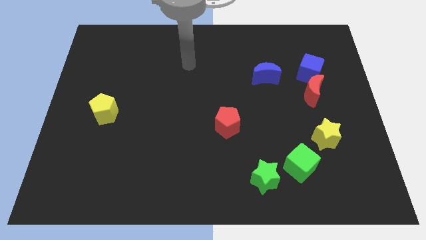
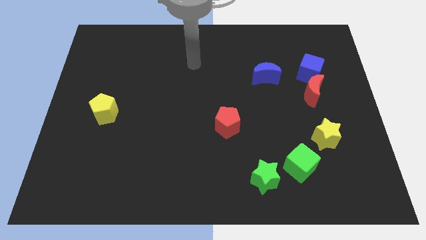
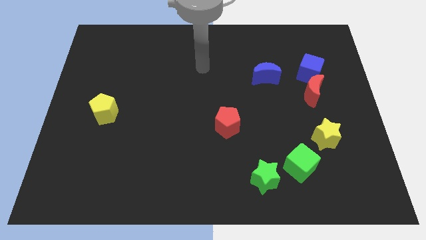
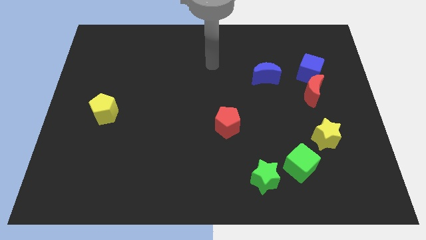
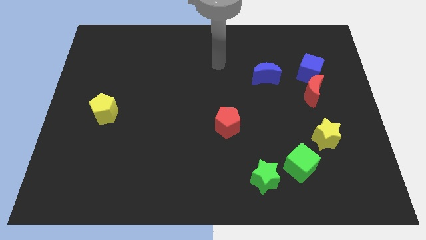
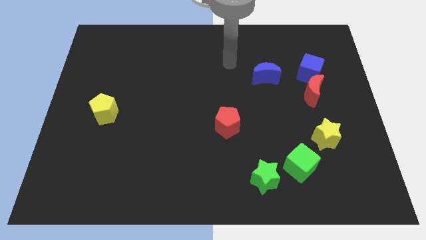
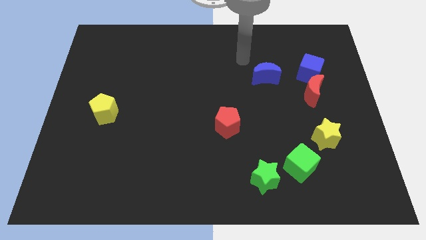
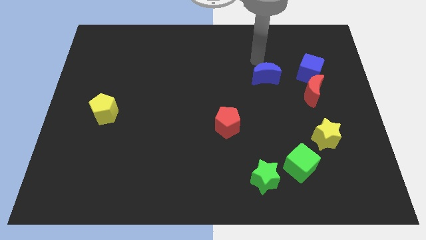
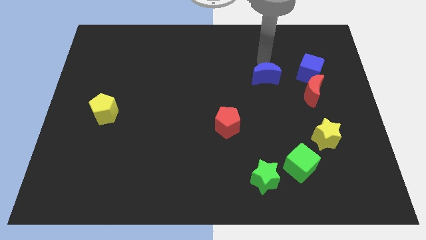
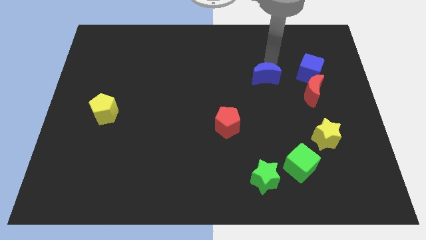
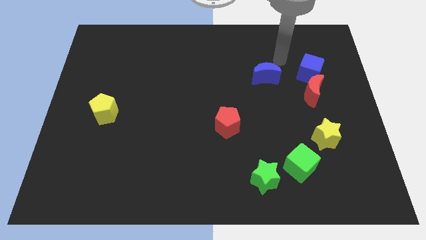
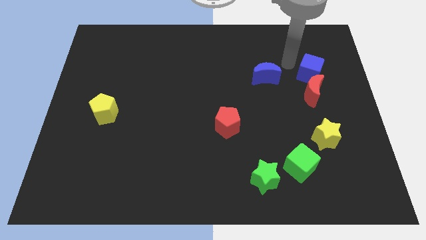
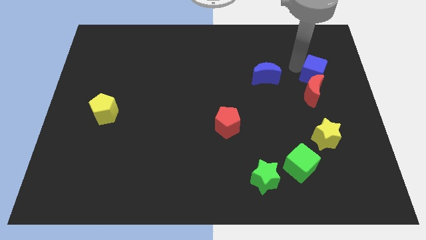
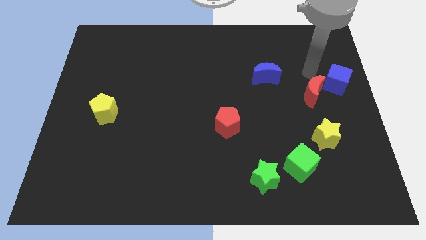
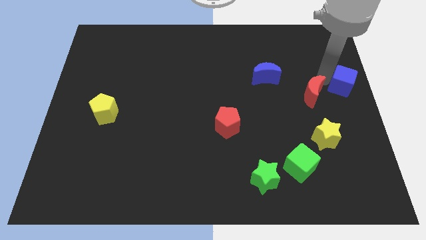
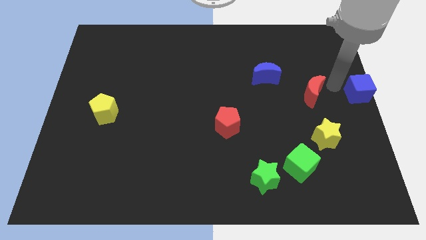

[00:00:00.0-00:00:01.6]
pull the red moon apart from the blue cube

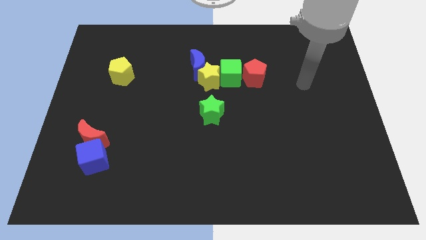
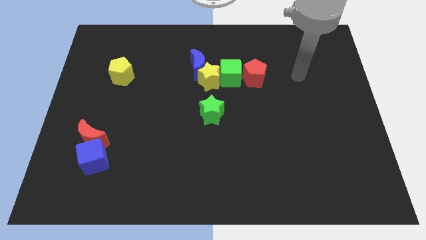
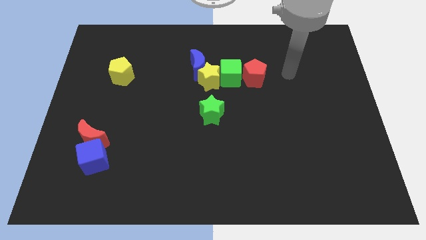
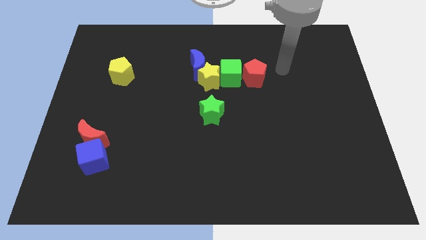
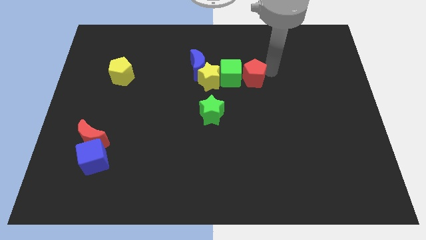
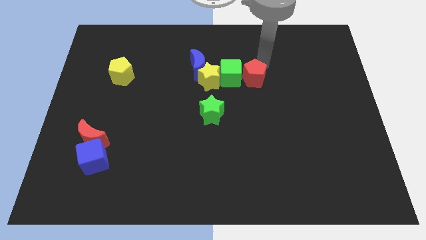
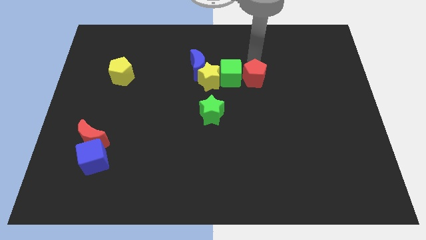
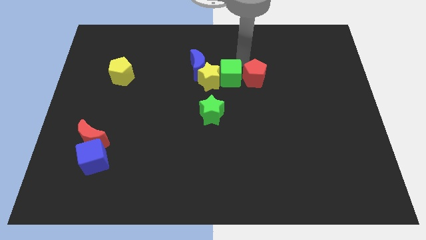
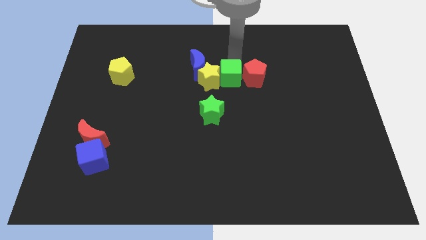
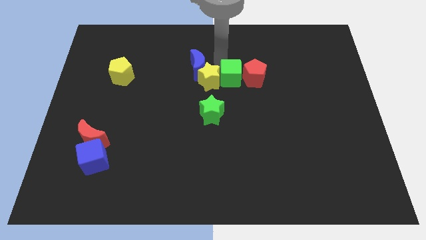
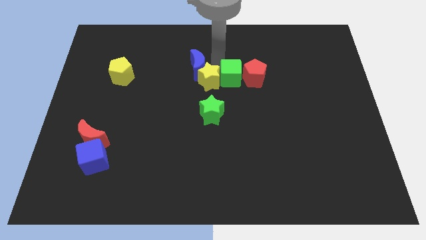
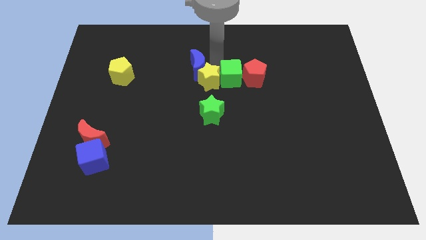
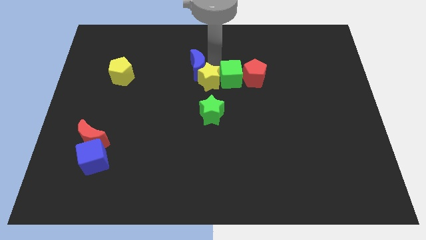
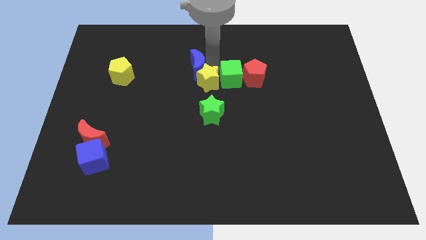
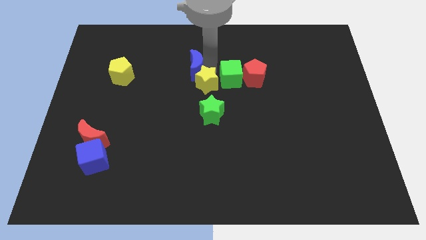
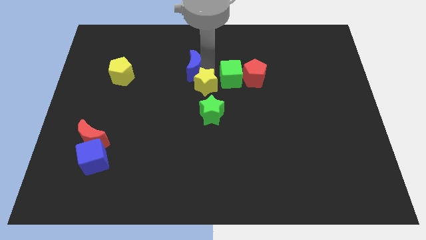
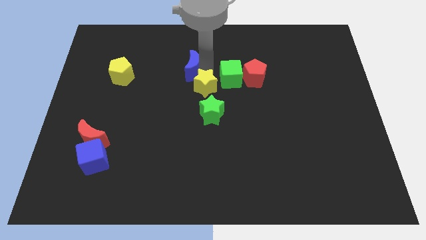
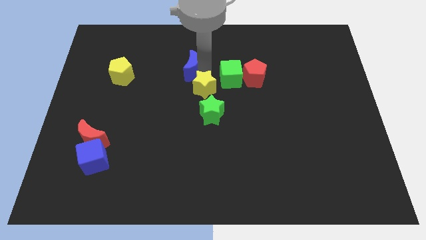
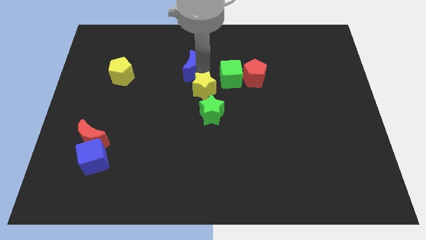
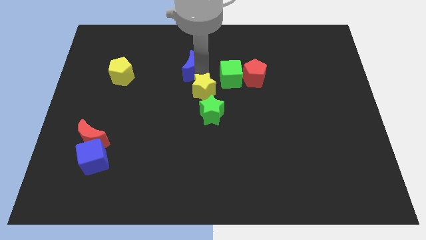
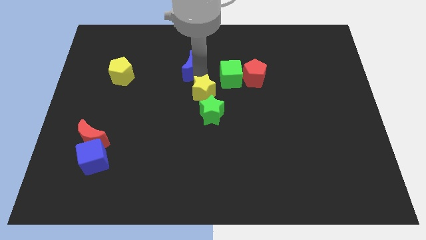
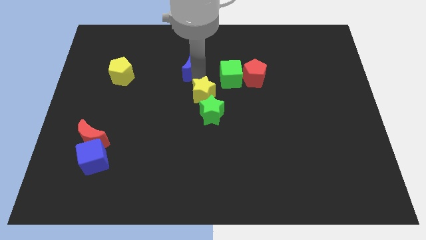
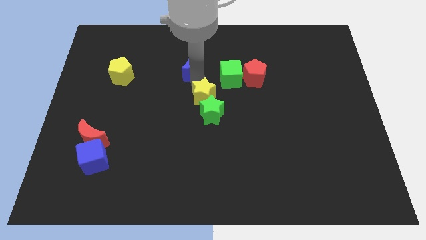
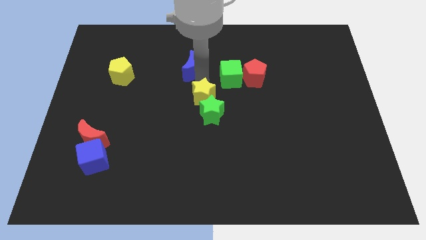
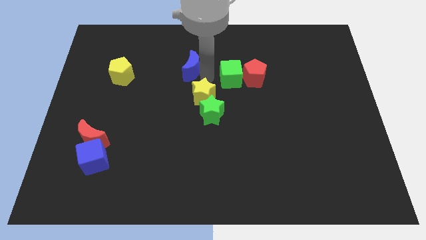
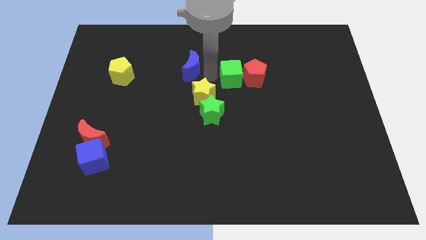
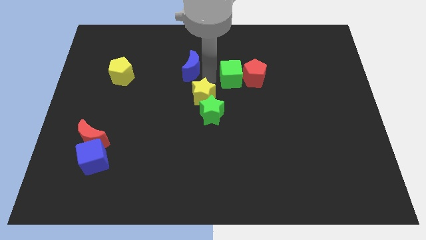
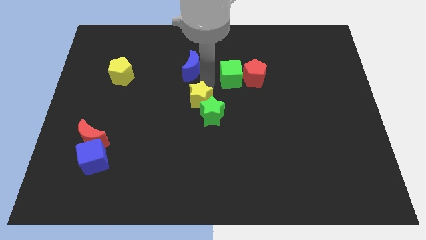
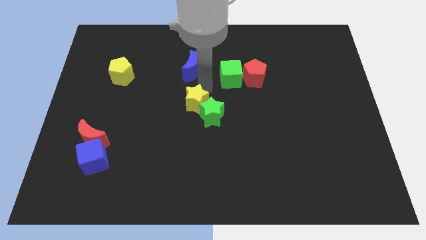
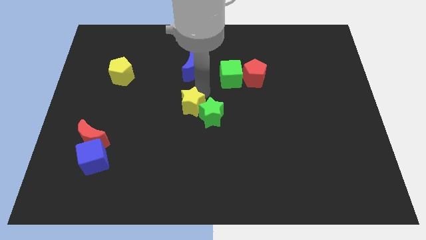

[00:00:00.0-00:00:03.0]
pull the yellow star apart from the blue moon and green cube

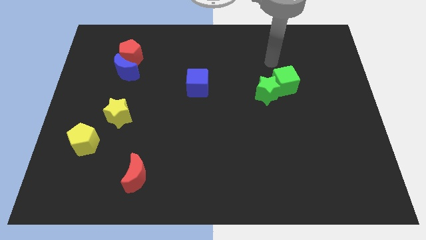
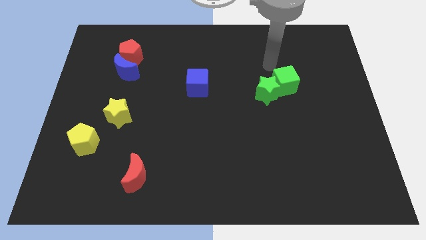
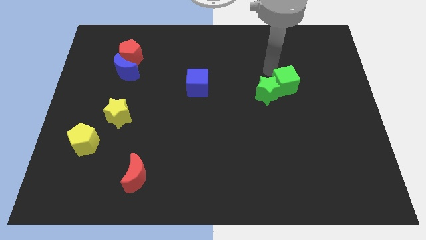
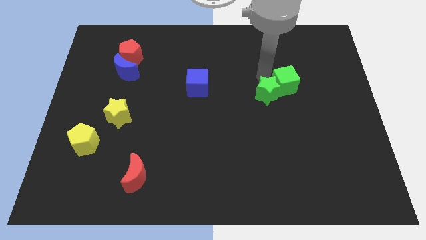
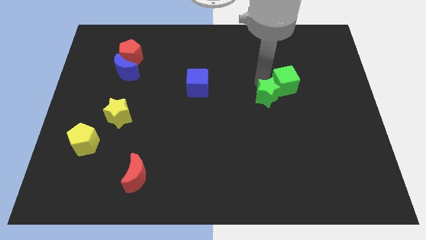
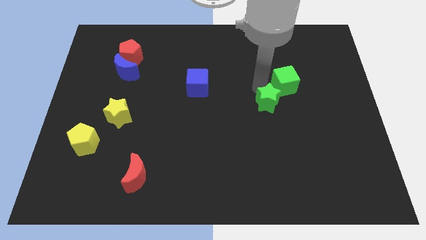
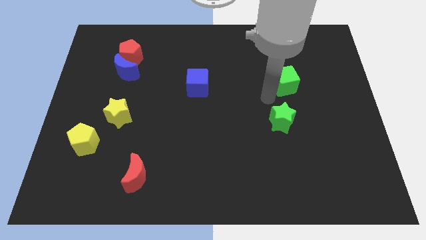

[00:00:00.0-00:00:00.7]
pull the green cube apart from the green star

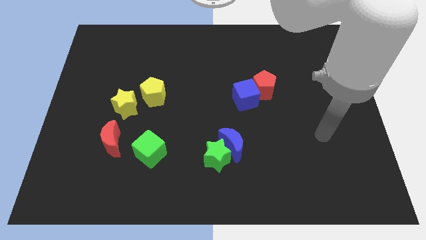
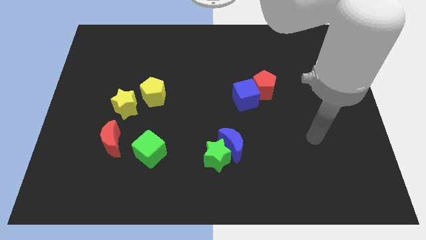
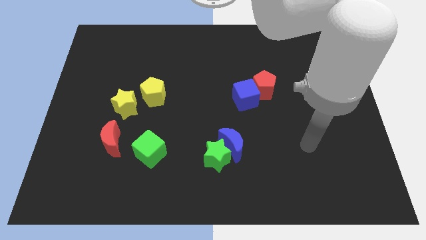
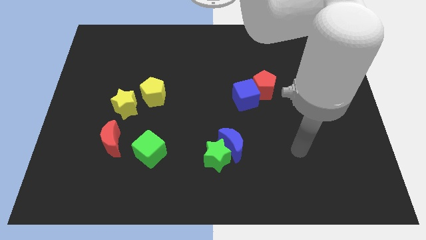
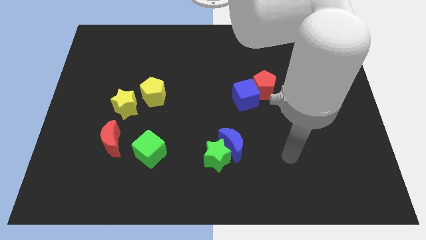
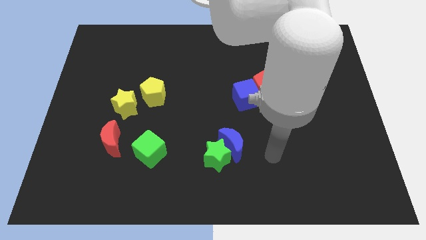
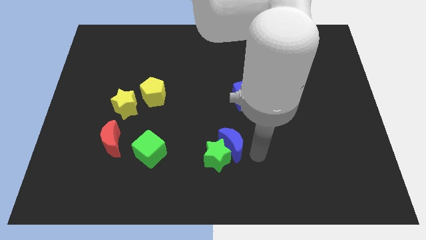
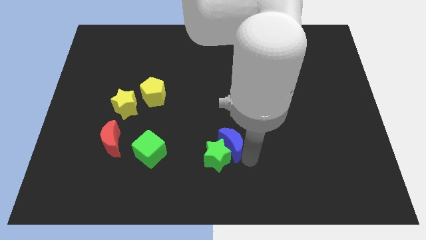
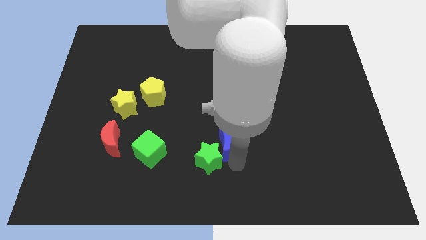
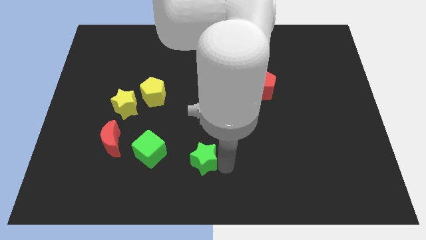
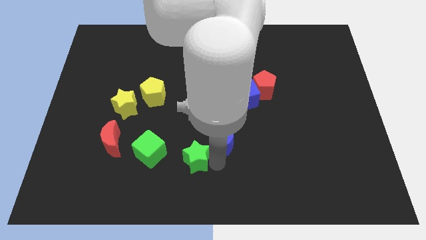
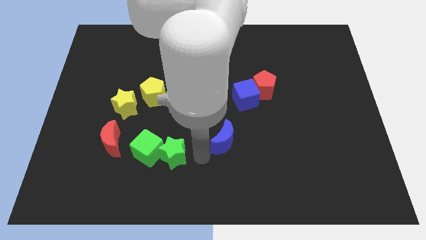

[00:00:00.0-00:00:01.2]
move the blue moon away from the green star

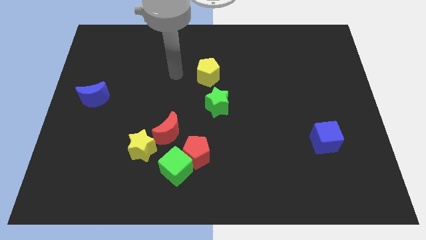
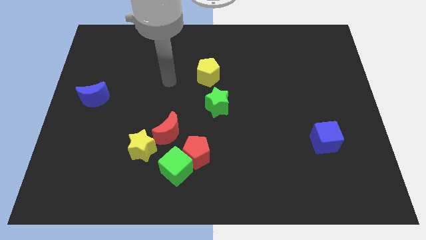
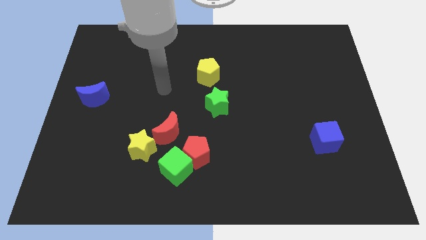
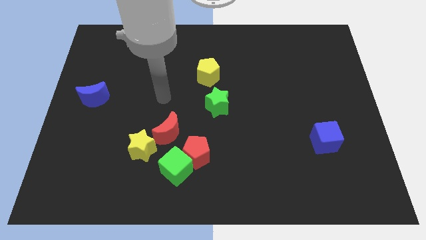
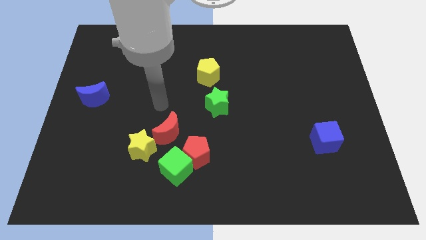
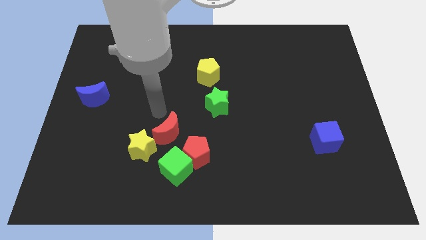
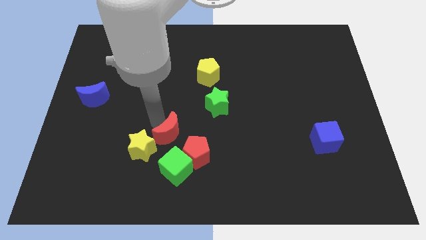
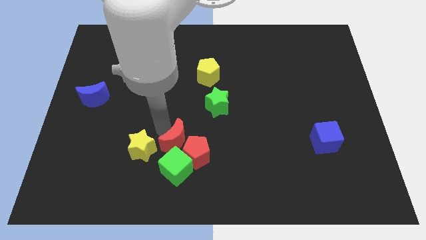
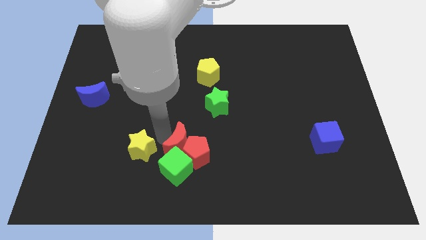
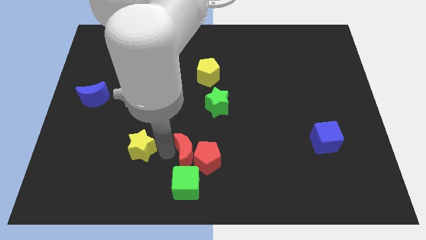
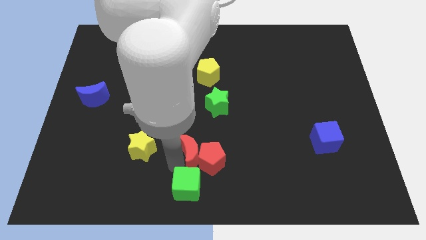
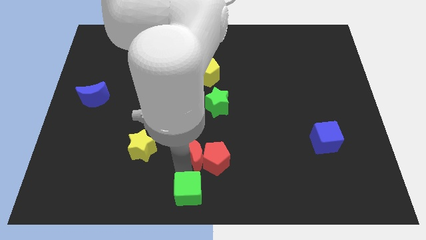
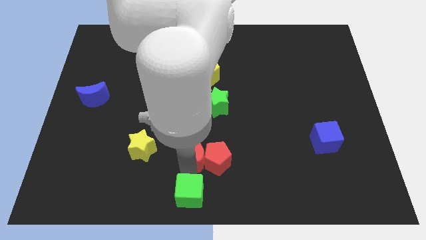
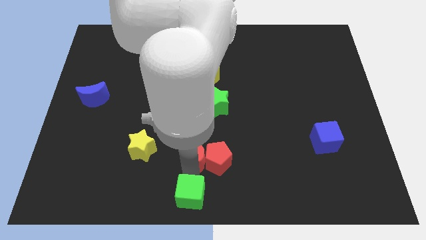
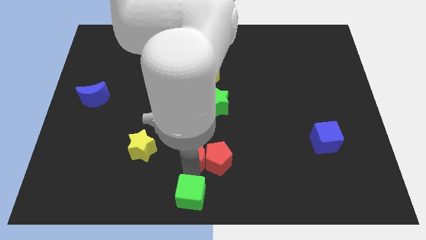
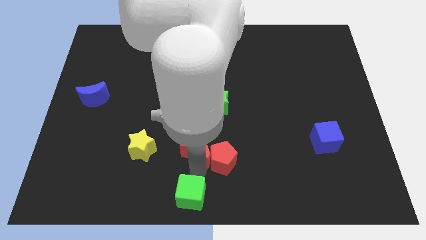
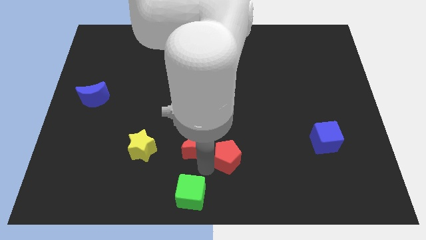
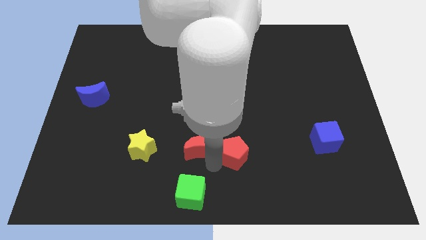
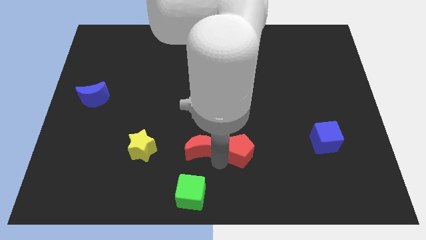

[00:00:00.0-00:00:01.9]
separate the red pentagon from the green cube and red moon

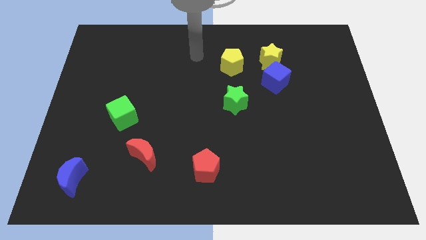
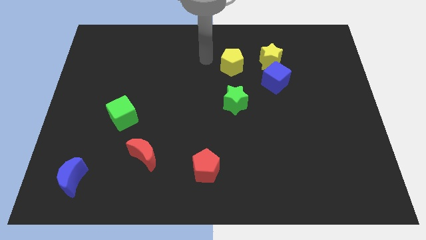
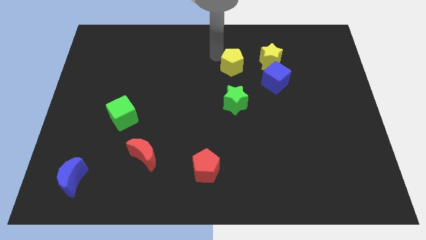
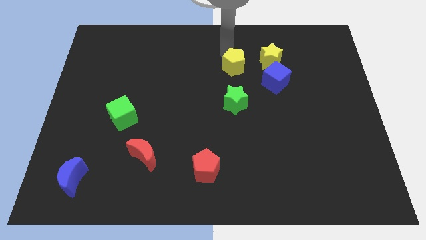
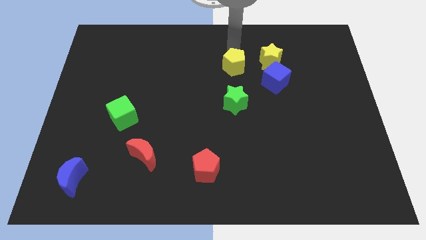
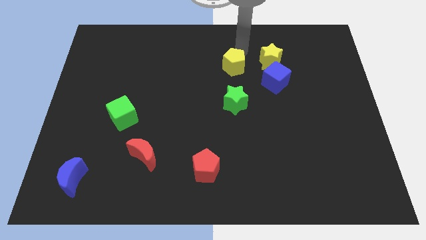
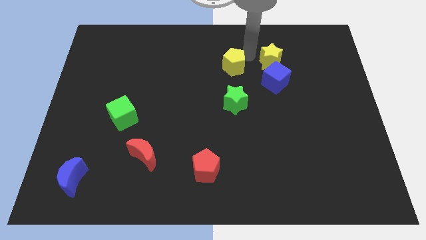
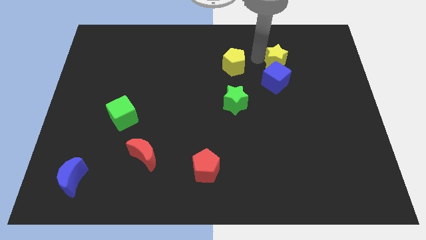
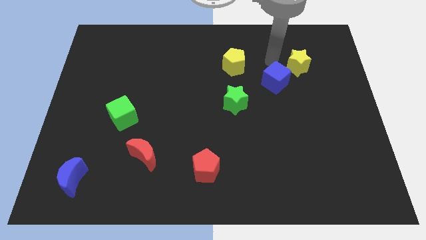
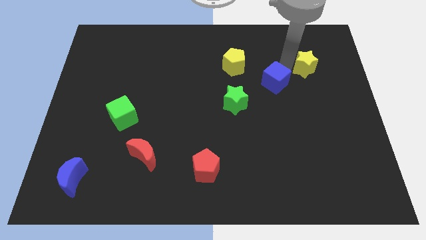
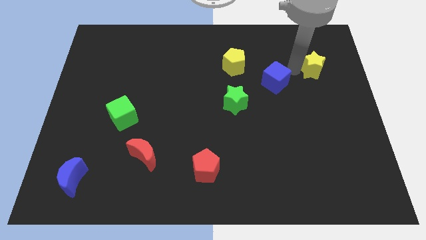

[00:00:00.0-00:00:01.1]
move the blue cube away from the yellow star
